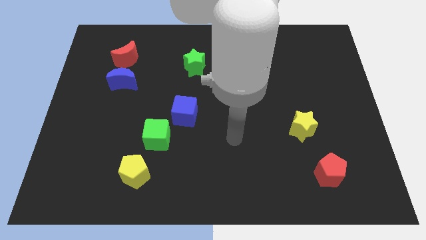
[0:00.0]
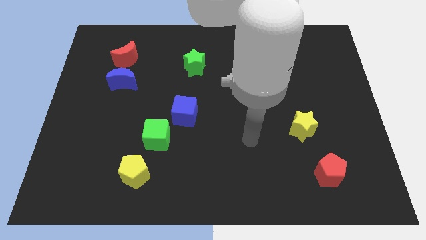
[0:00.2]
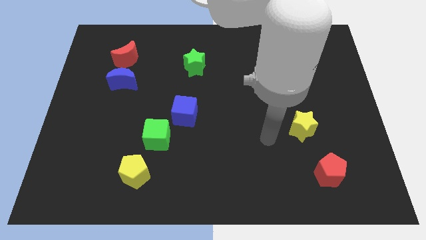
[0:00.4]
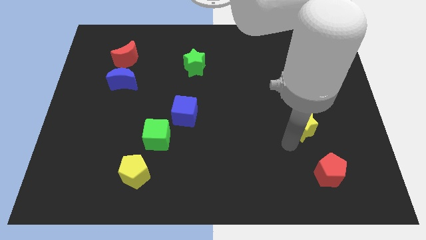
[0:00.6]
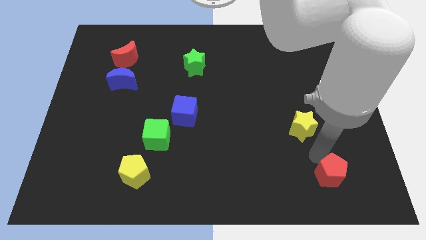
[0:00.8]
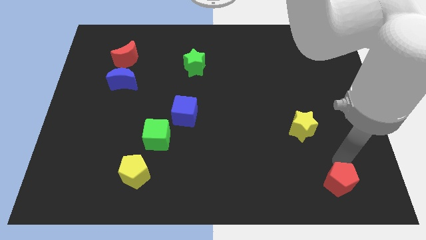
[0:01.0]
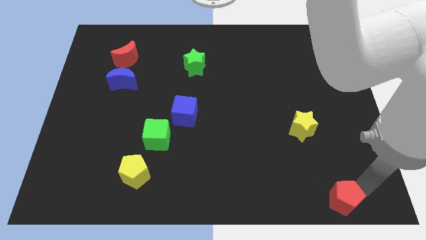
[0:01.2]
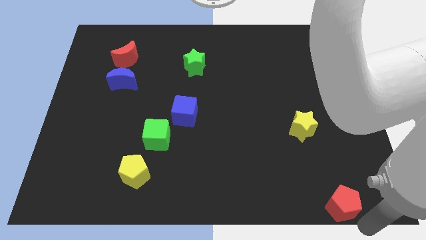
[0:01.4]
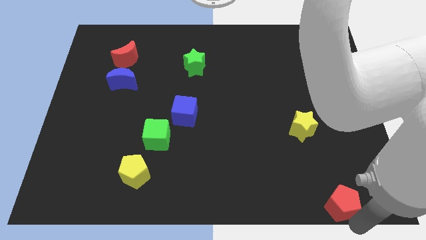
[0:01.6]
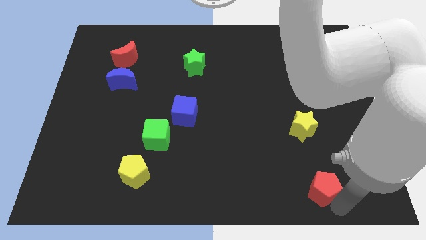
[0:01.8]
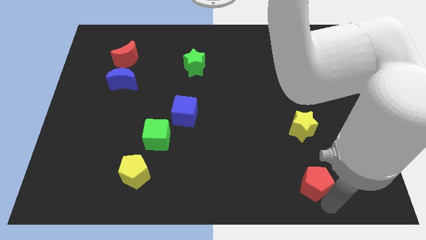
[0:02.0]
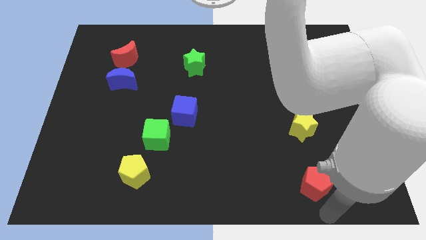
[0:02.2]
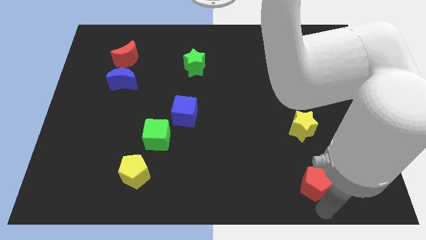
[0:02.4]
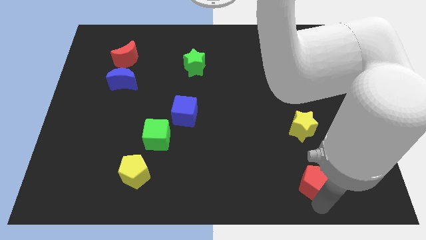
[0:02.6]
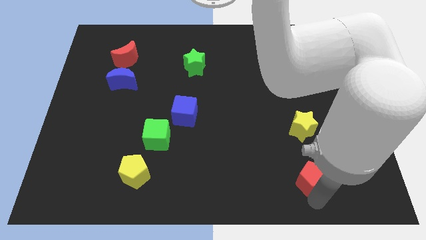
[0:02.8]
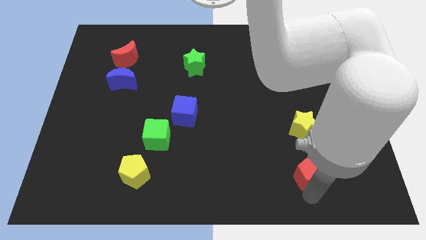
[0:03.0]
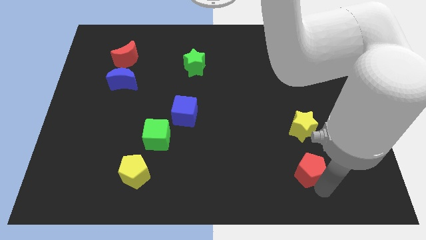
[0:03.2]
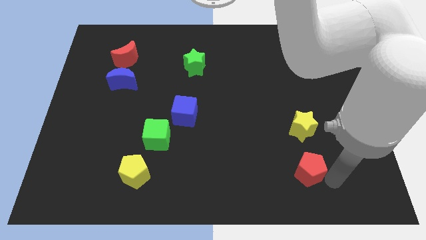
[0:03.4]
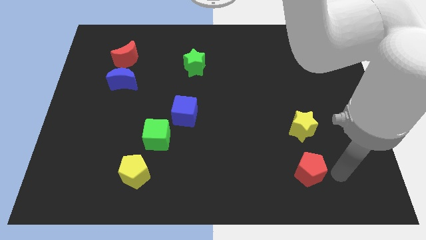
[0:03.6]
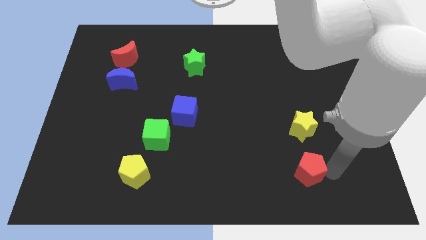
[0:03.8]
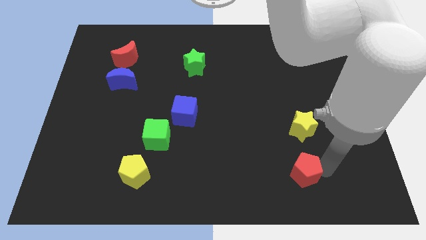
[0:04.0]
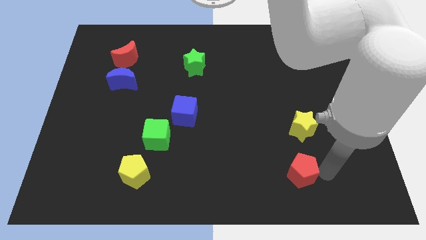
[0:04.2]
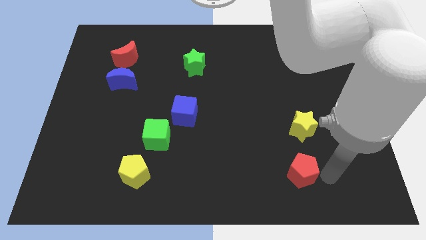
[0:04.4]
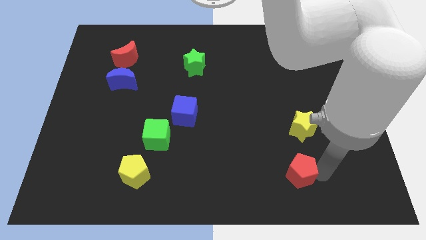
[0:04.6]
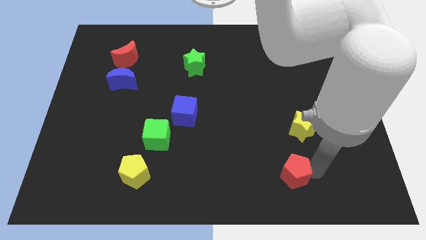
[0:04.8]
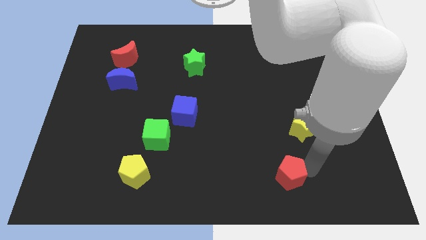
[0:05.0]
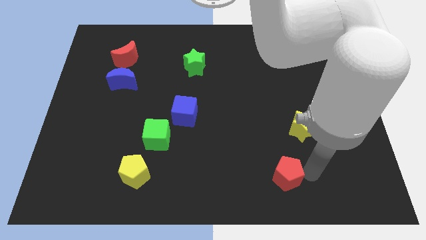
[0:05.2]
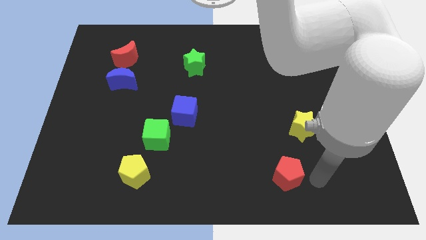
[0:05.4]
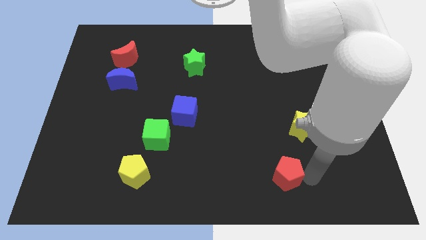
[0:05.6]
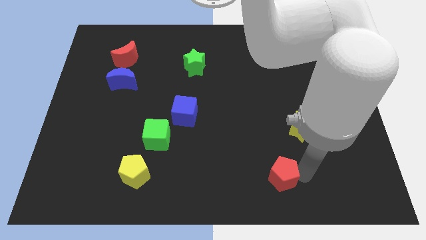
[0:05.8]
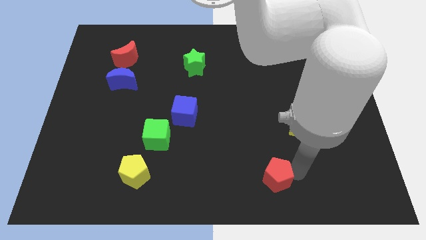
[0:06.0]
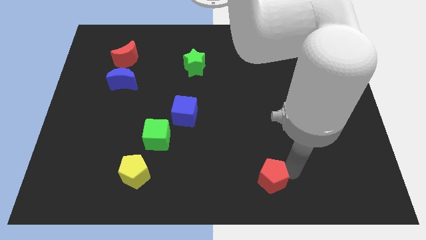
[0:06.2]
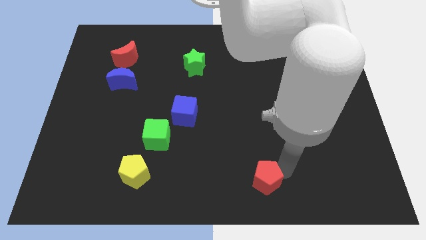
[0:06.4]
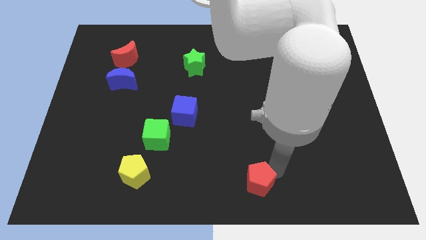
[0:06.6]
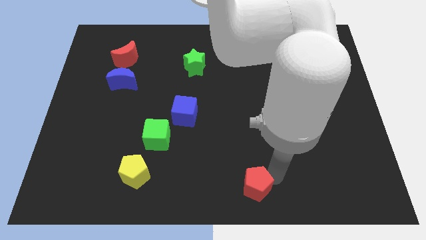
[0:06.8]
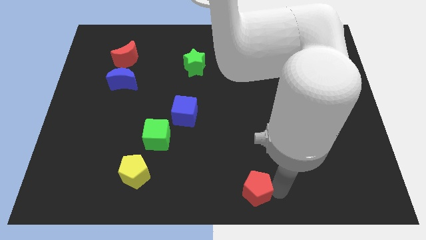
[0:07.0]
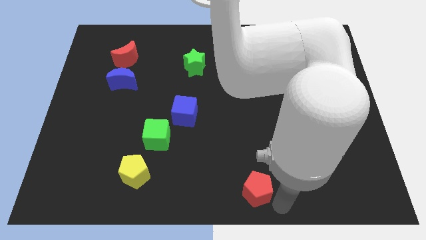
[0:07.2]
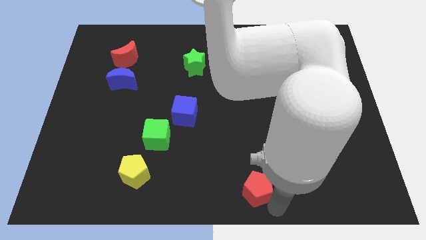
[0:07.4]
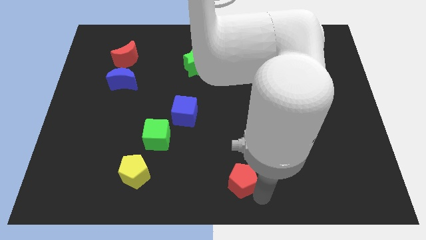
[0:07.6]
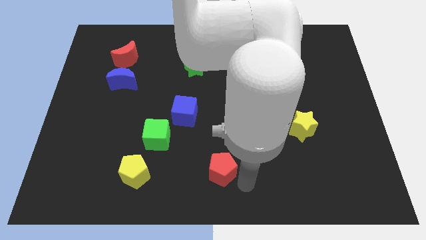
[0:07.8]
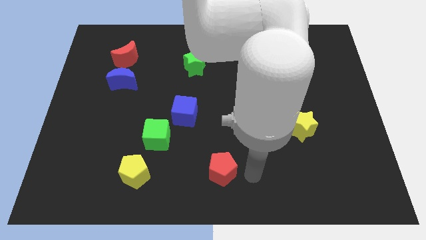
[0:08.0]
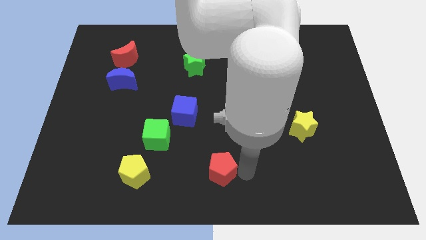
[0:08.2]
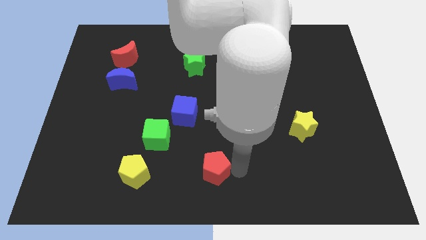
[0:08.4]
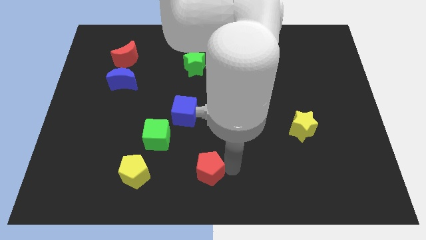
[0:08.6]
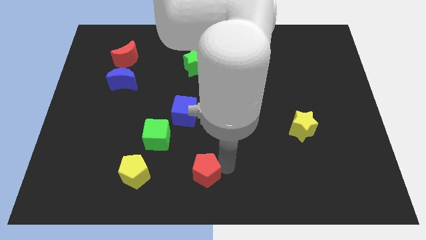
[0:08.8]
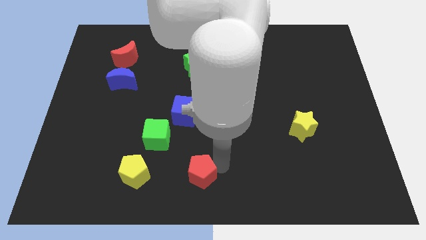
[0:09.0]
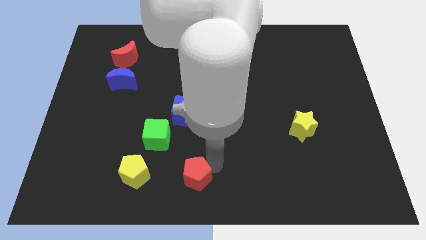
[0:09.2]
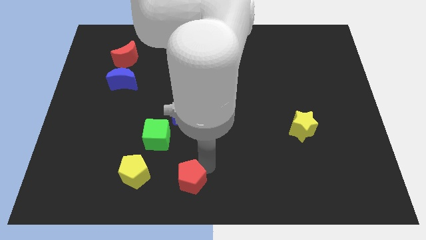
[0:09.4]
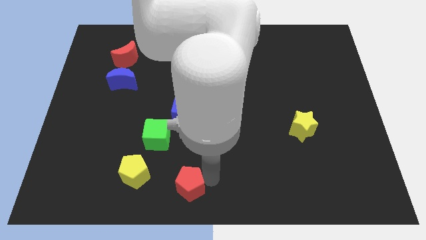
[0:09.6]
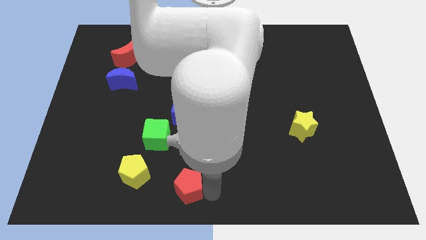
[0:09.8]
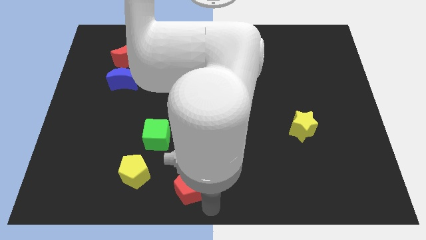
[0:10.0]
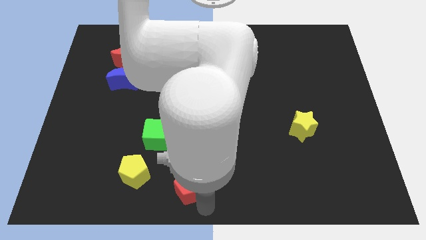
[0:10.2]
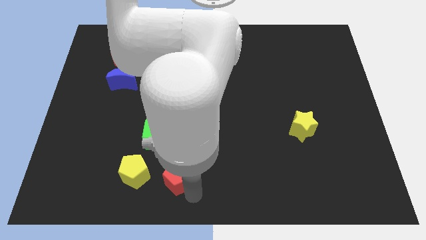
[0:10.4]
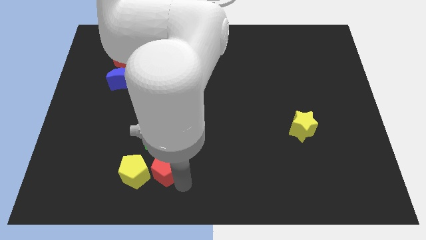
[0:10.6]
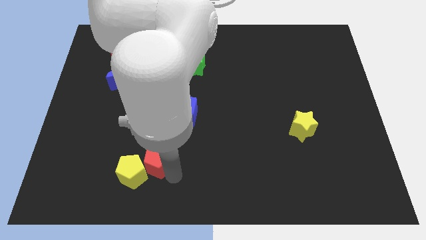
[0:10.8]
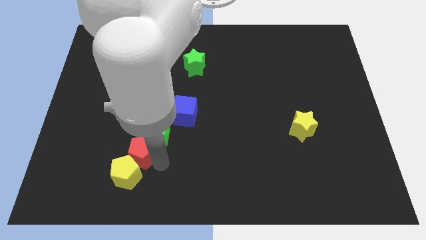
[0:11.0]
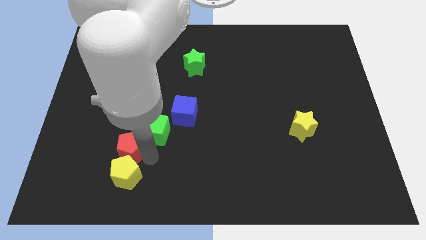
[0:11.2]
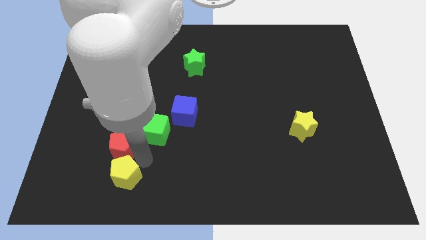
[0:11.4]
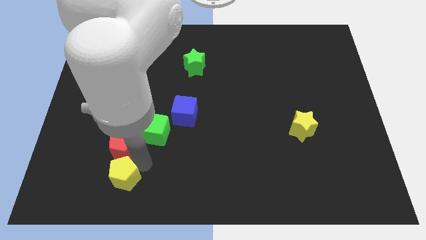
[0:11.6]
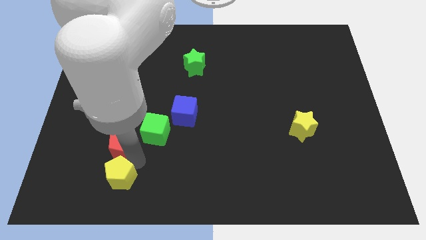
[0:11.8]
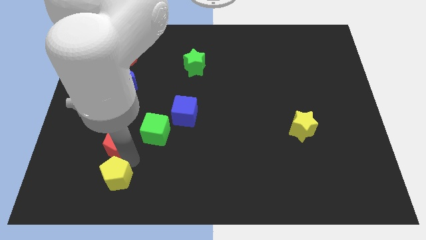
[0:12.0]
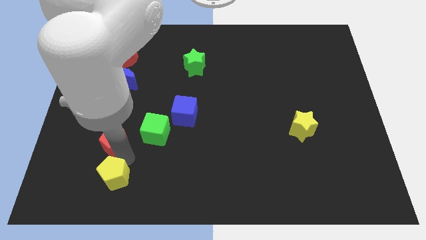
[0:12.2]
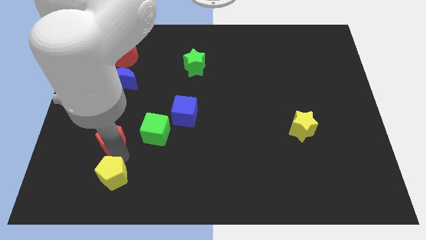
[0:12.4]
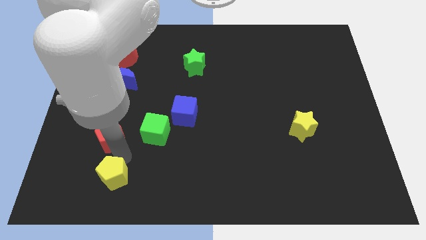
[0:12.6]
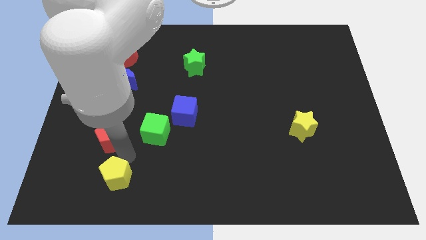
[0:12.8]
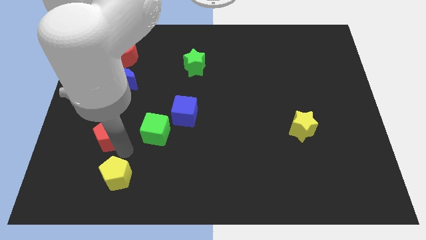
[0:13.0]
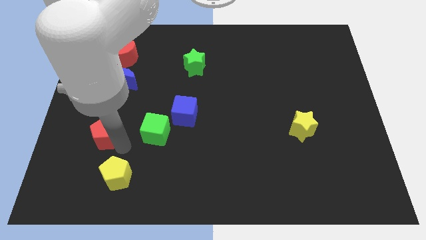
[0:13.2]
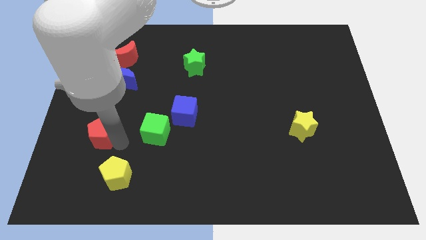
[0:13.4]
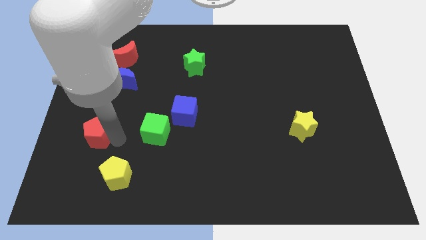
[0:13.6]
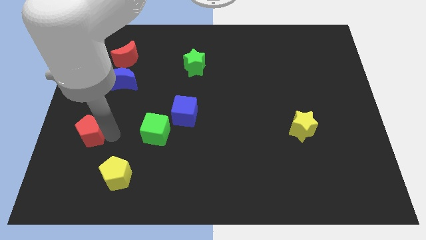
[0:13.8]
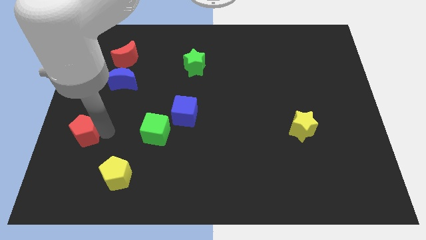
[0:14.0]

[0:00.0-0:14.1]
put the red pentagon to the left side
